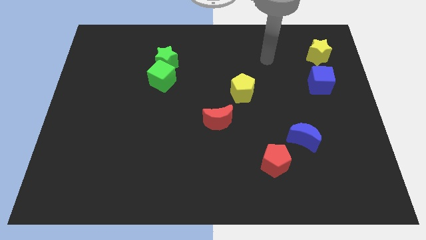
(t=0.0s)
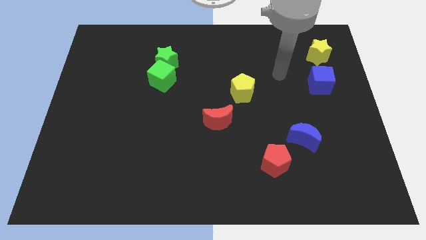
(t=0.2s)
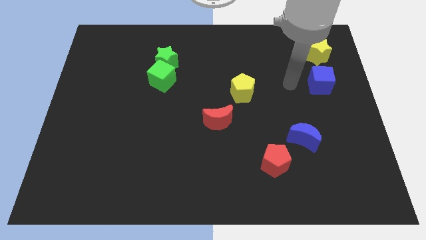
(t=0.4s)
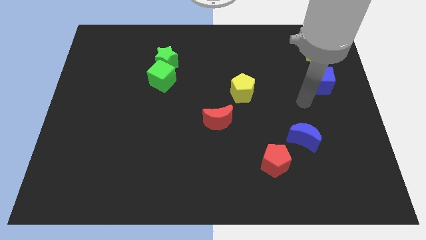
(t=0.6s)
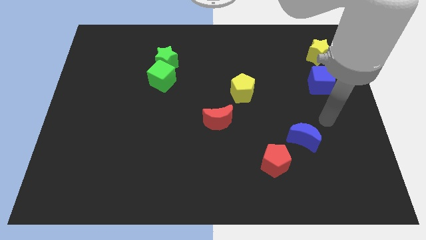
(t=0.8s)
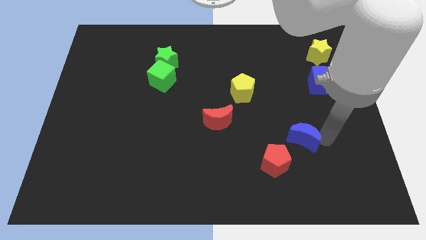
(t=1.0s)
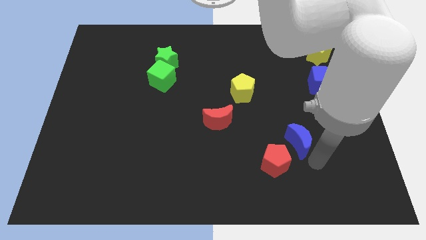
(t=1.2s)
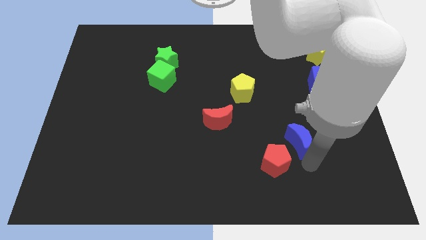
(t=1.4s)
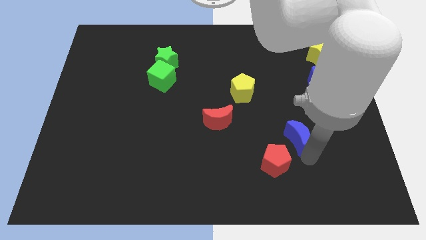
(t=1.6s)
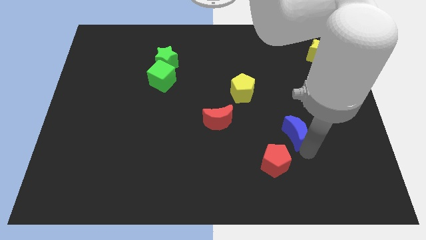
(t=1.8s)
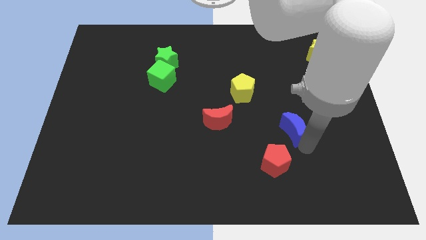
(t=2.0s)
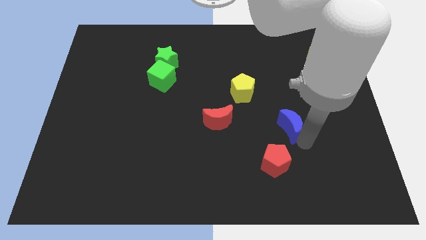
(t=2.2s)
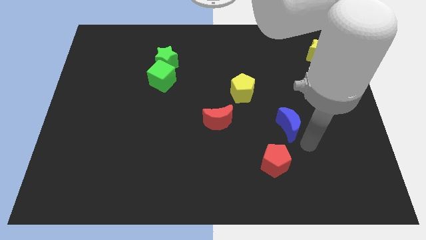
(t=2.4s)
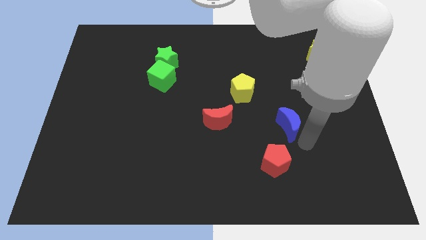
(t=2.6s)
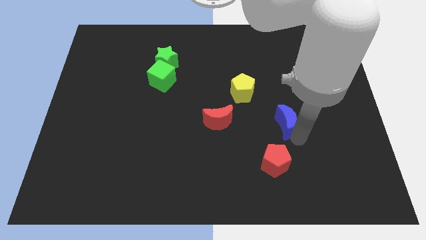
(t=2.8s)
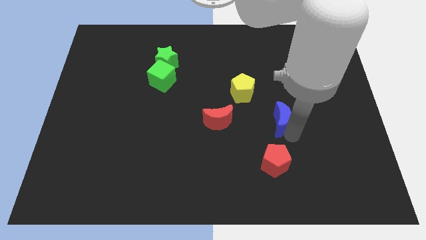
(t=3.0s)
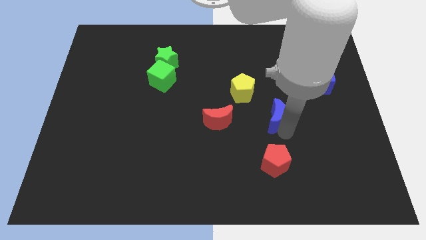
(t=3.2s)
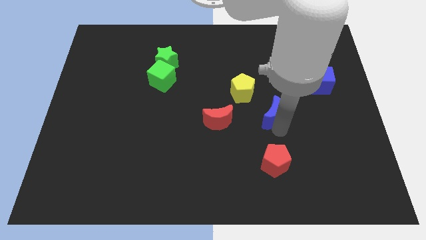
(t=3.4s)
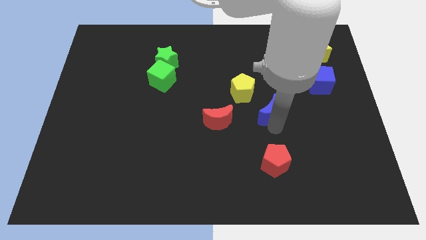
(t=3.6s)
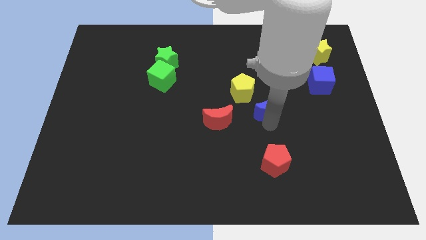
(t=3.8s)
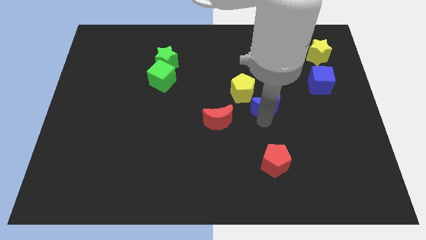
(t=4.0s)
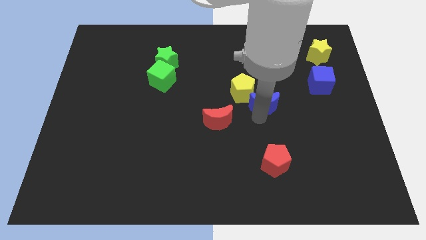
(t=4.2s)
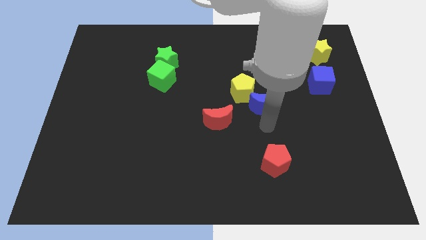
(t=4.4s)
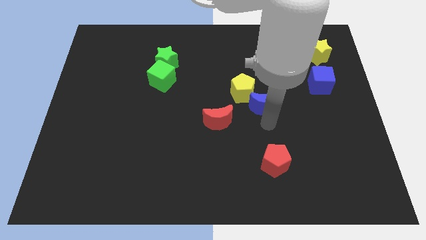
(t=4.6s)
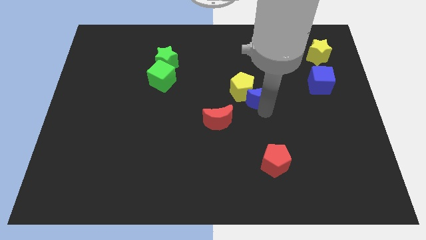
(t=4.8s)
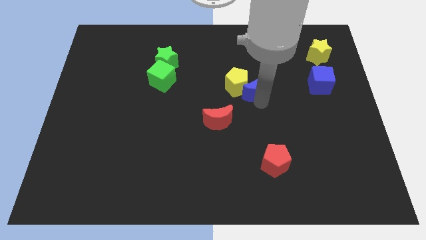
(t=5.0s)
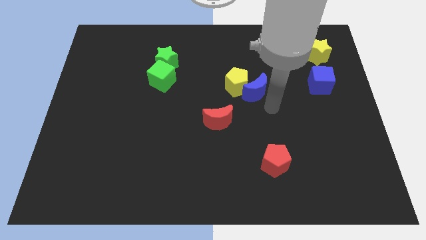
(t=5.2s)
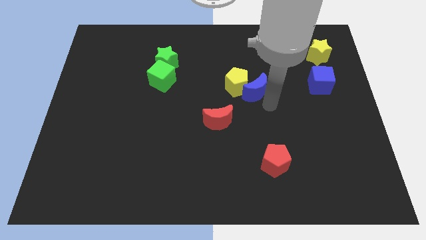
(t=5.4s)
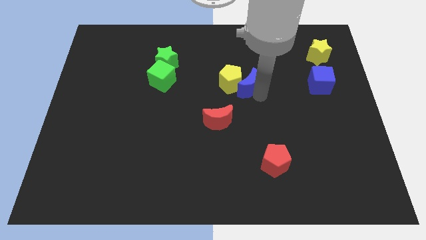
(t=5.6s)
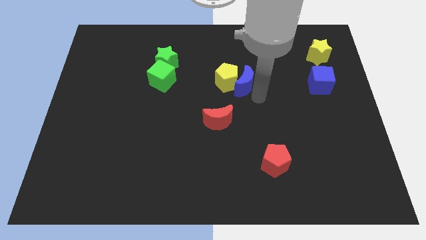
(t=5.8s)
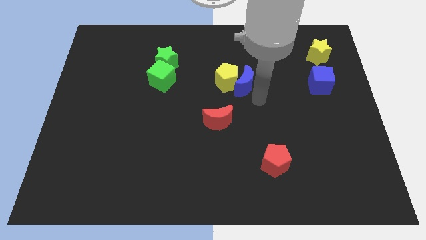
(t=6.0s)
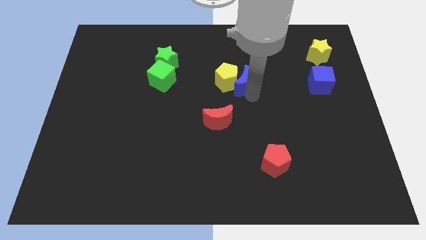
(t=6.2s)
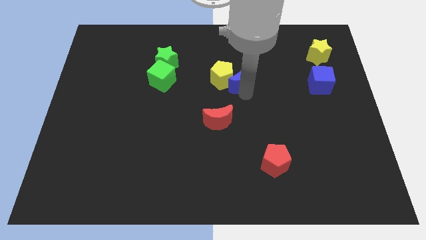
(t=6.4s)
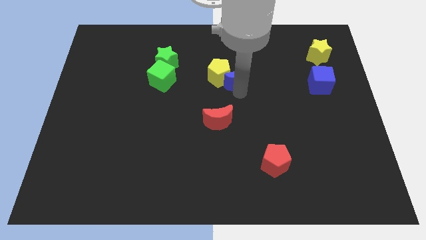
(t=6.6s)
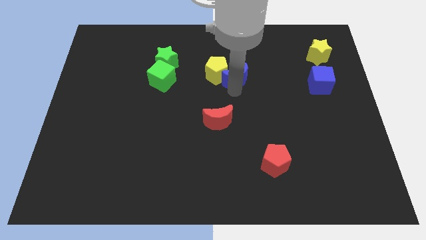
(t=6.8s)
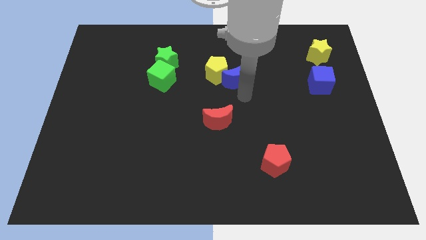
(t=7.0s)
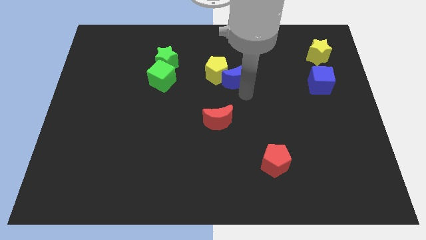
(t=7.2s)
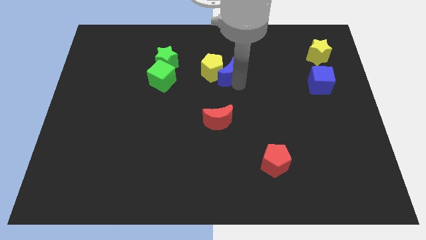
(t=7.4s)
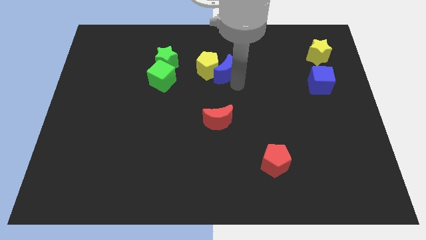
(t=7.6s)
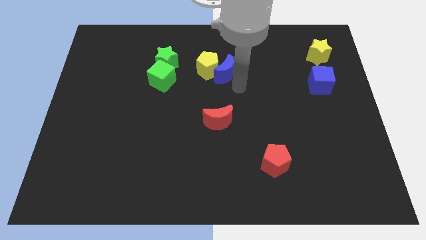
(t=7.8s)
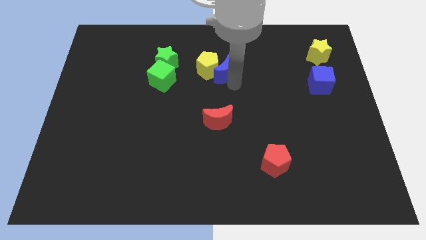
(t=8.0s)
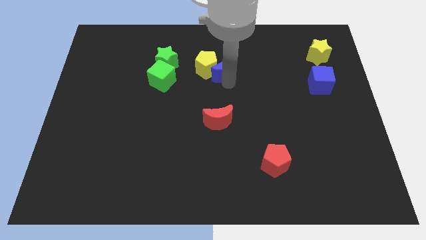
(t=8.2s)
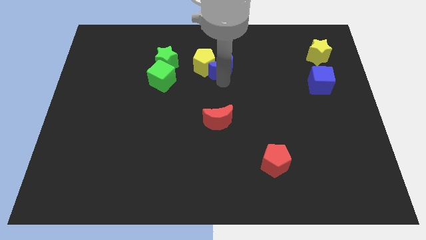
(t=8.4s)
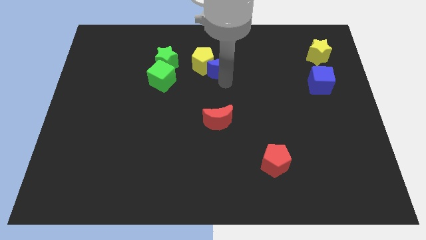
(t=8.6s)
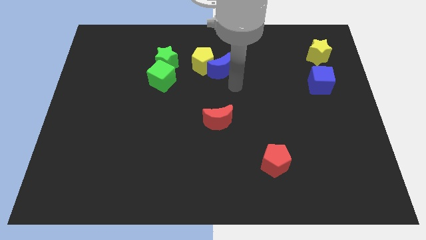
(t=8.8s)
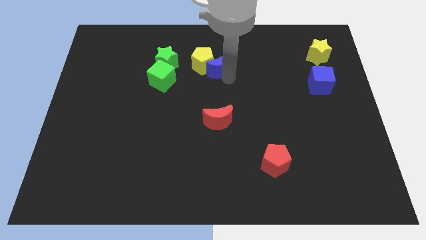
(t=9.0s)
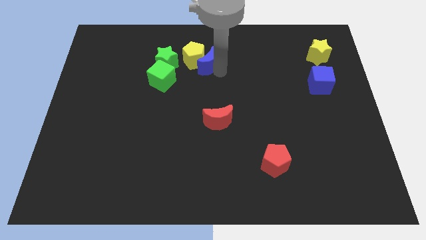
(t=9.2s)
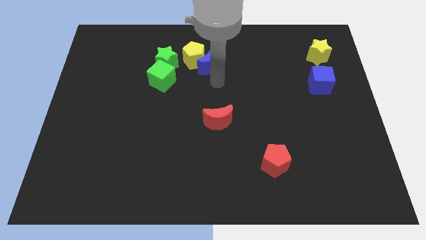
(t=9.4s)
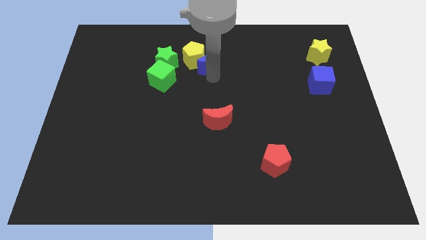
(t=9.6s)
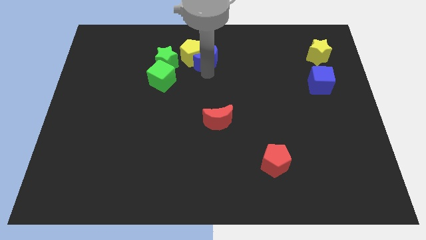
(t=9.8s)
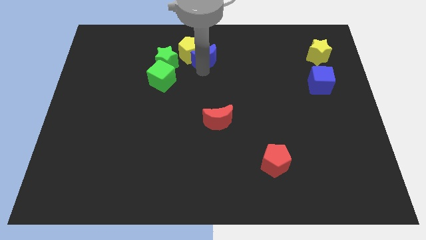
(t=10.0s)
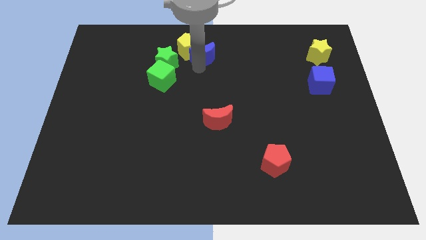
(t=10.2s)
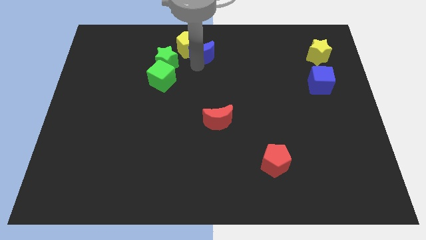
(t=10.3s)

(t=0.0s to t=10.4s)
slide the blue moon to the top side

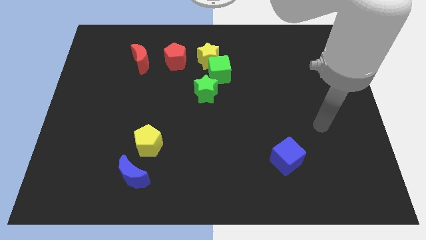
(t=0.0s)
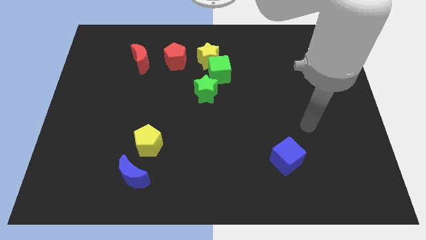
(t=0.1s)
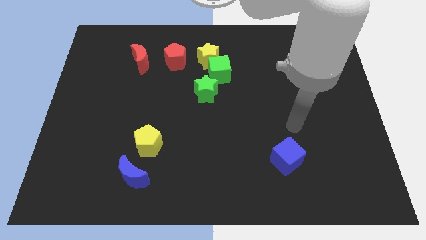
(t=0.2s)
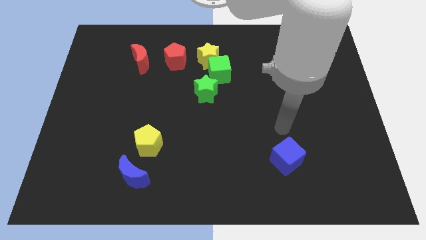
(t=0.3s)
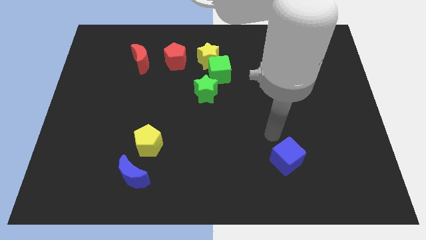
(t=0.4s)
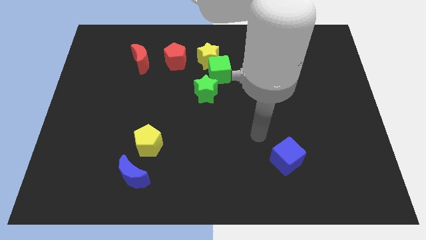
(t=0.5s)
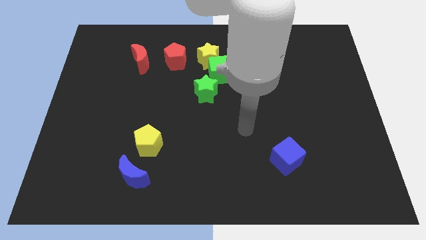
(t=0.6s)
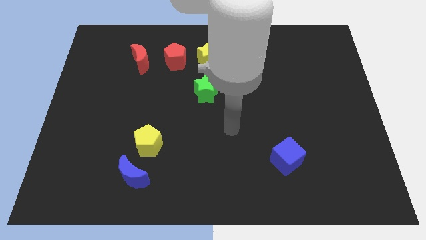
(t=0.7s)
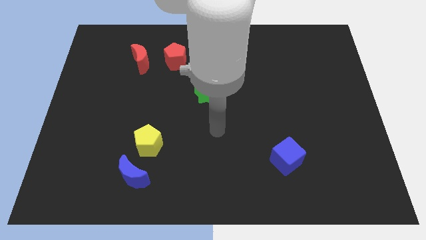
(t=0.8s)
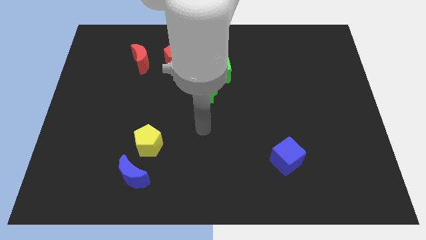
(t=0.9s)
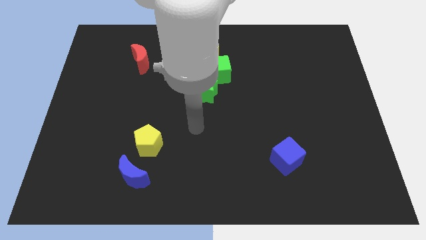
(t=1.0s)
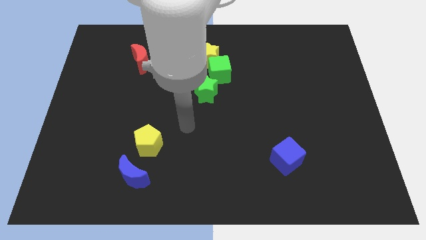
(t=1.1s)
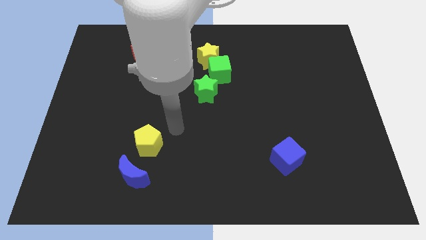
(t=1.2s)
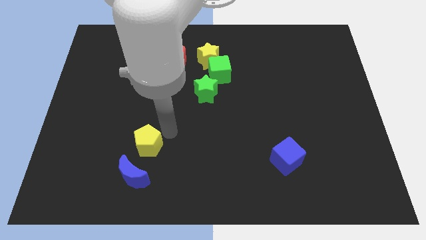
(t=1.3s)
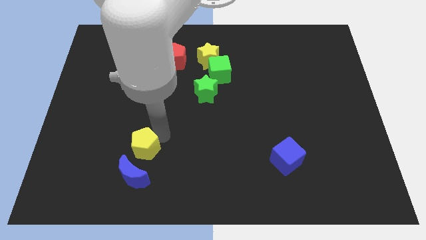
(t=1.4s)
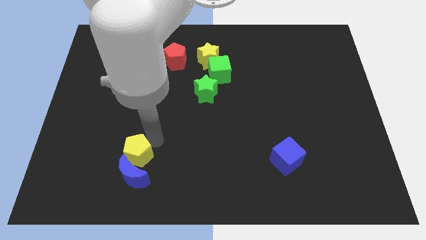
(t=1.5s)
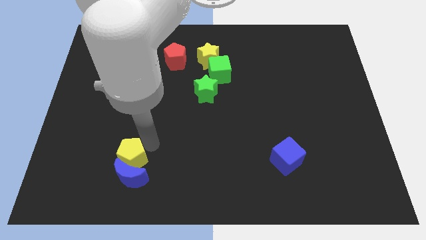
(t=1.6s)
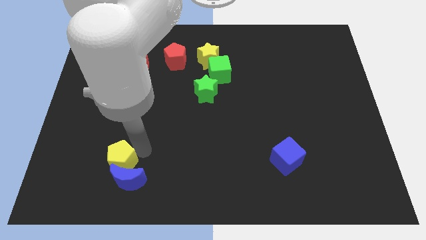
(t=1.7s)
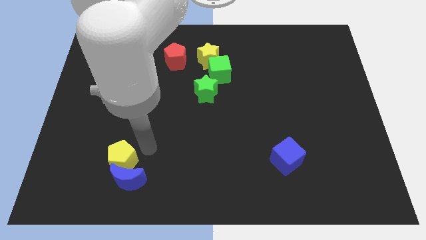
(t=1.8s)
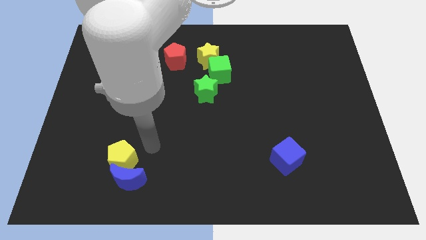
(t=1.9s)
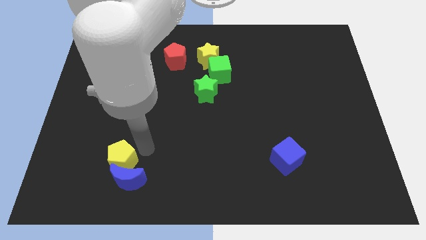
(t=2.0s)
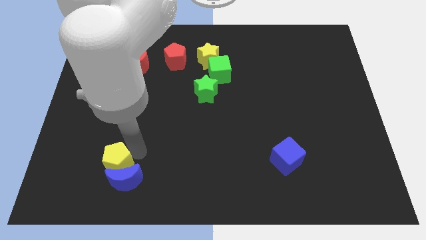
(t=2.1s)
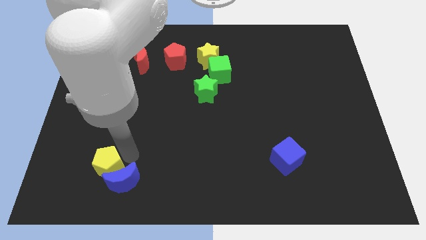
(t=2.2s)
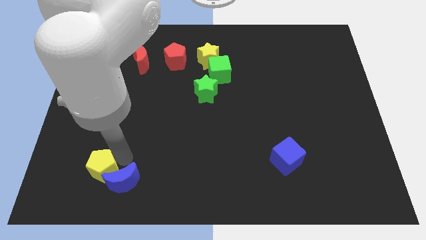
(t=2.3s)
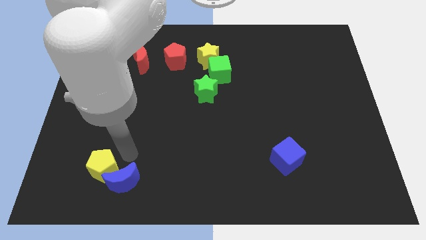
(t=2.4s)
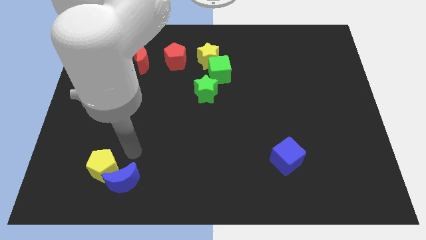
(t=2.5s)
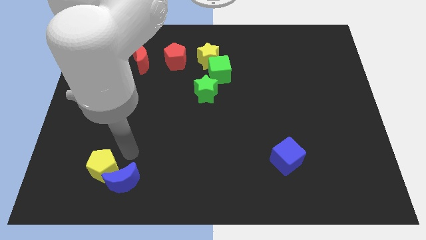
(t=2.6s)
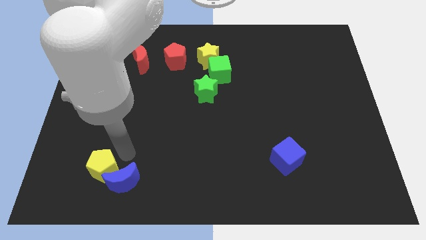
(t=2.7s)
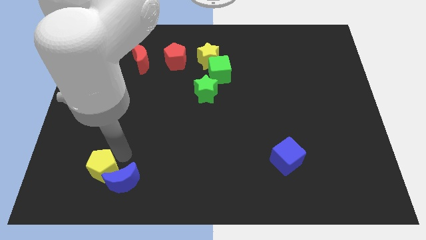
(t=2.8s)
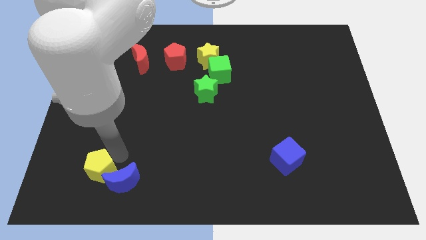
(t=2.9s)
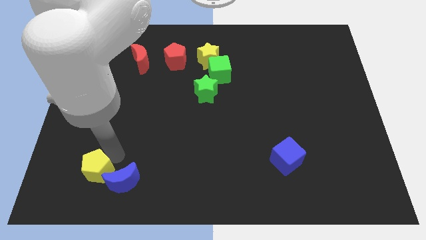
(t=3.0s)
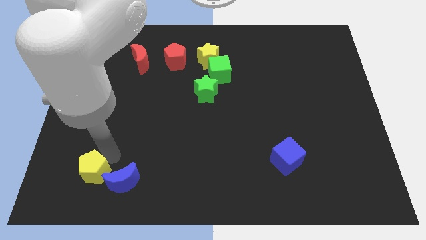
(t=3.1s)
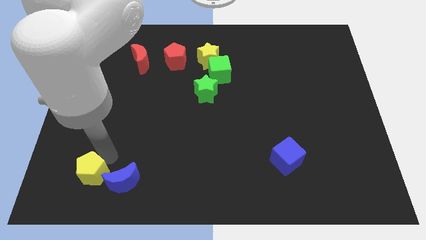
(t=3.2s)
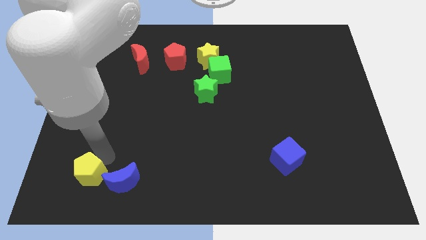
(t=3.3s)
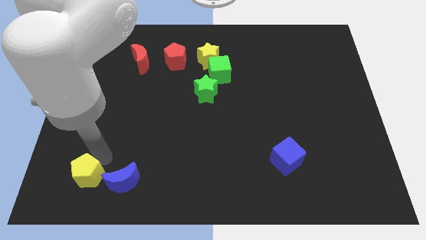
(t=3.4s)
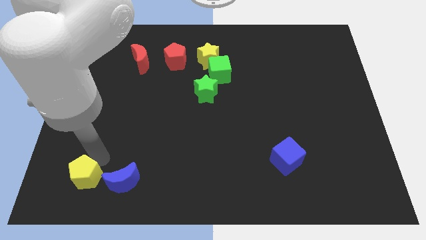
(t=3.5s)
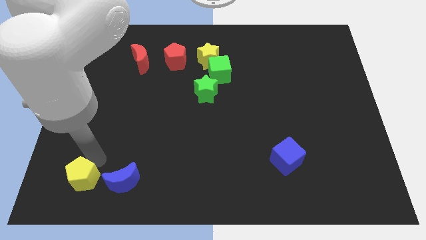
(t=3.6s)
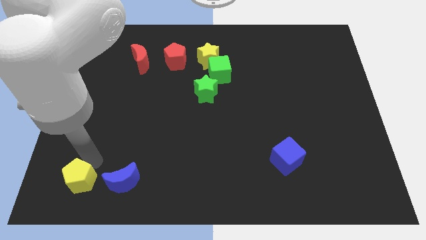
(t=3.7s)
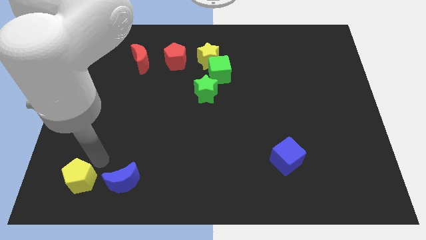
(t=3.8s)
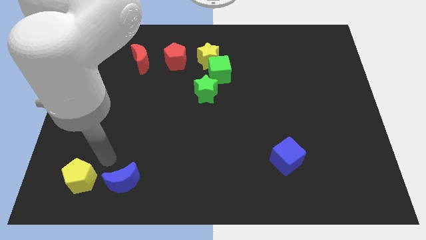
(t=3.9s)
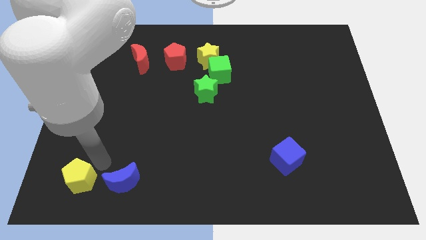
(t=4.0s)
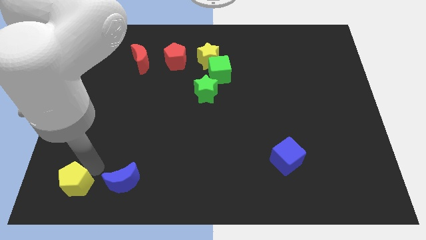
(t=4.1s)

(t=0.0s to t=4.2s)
push the yellow pentagon to the bottom left of the board
